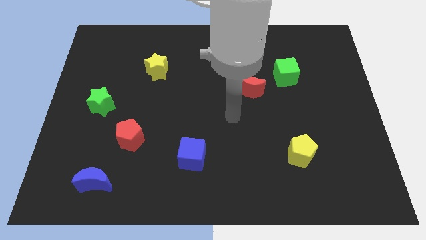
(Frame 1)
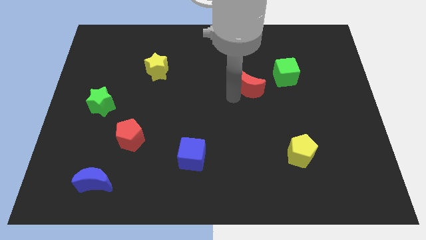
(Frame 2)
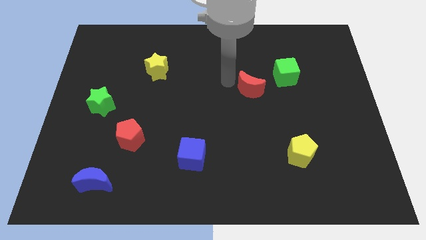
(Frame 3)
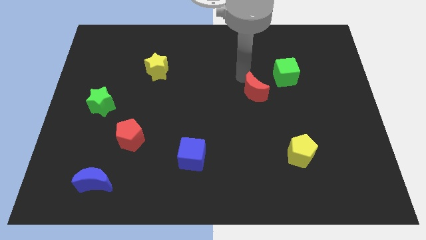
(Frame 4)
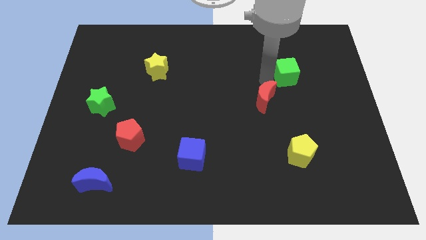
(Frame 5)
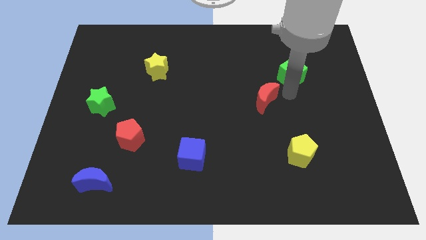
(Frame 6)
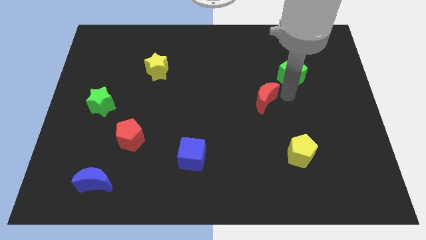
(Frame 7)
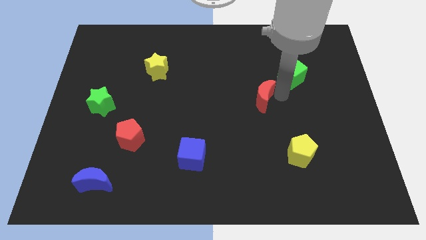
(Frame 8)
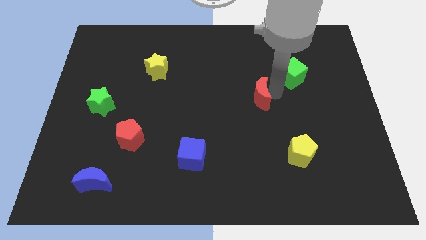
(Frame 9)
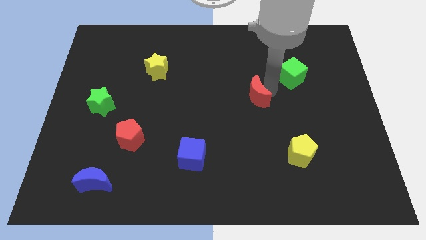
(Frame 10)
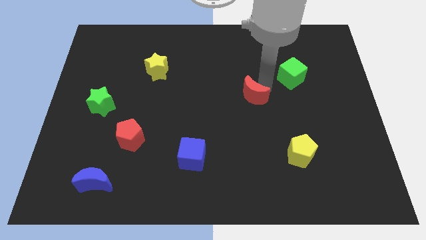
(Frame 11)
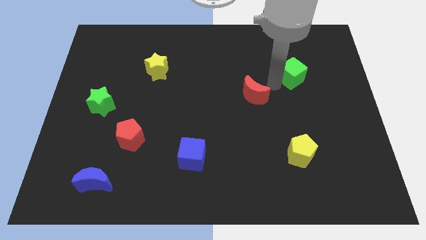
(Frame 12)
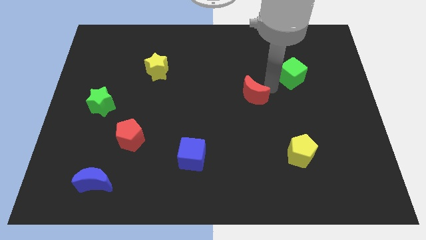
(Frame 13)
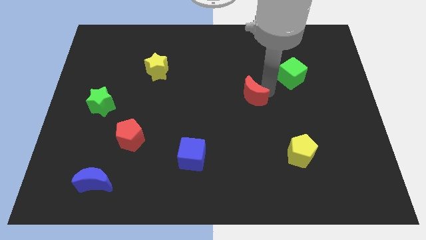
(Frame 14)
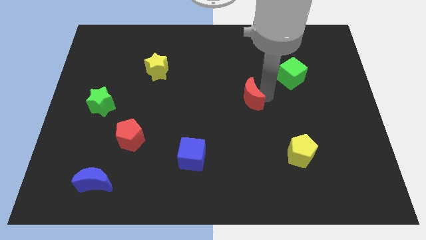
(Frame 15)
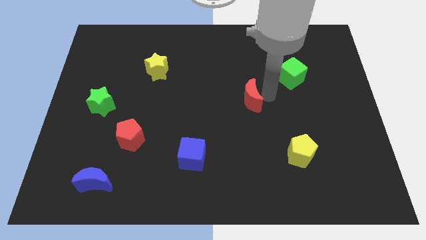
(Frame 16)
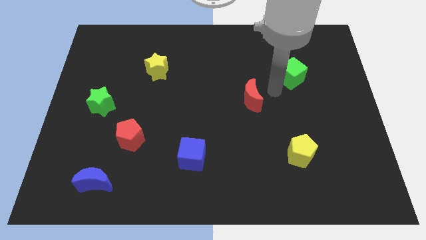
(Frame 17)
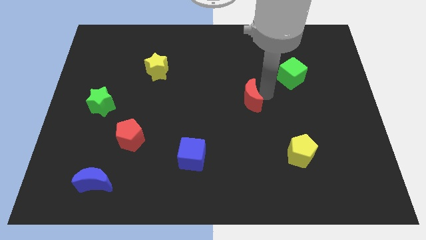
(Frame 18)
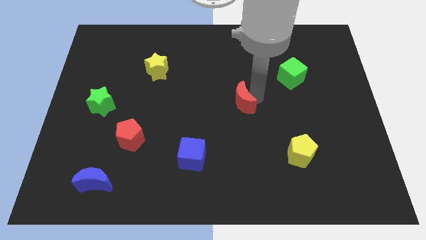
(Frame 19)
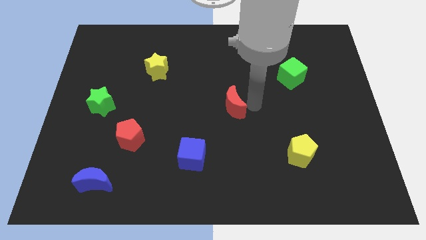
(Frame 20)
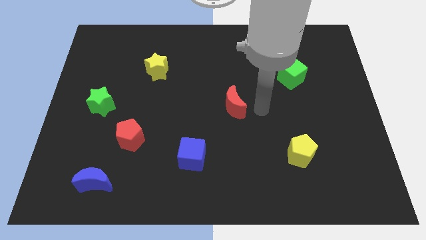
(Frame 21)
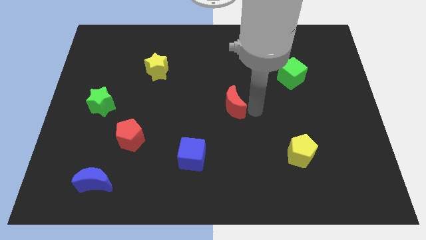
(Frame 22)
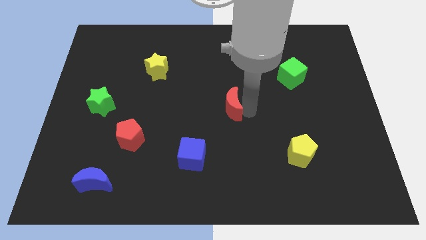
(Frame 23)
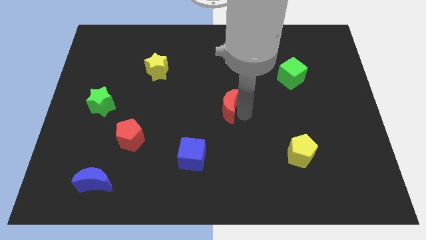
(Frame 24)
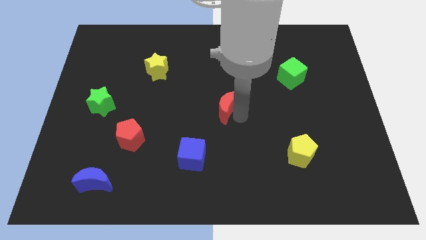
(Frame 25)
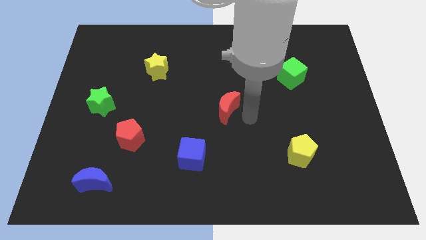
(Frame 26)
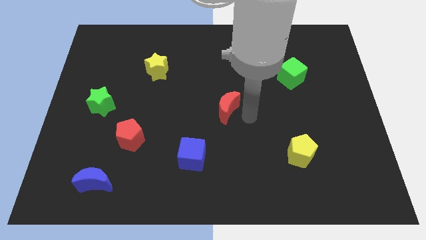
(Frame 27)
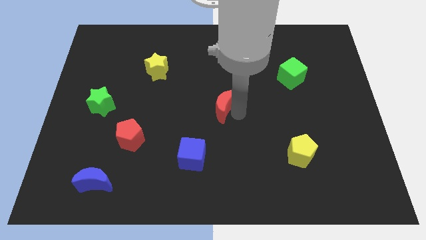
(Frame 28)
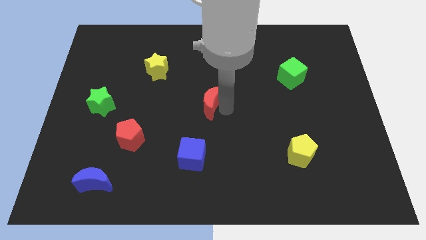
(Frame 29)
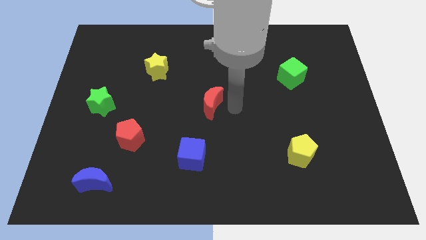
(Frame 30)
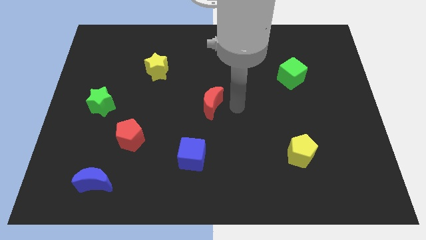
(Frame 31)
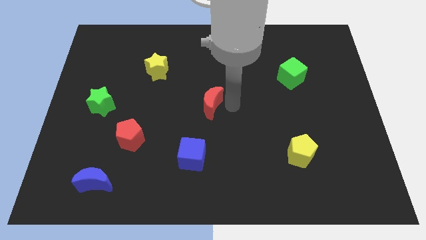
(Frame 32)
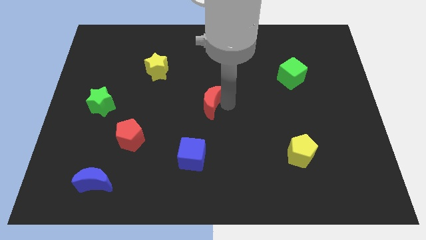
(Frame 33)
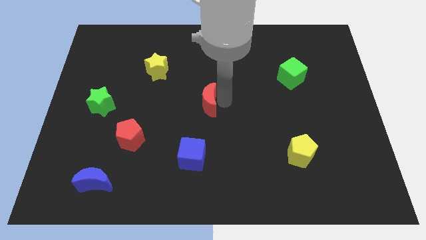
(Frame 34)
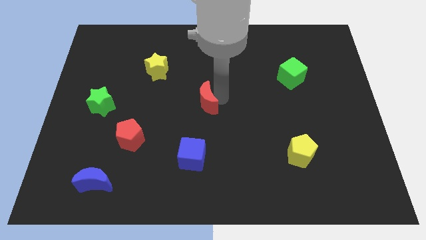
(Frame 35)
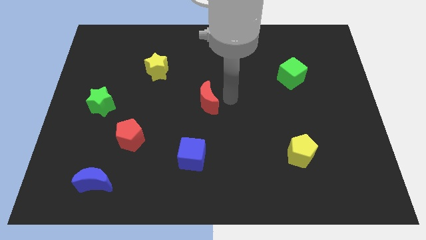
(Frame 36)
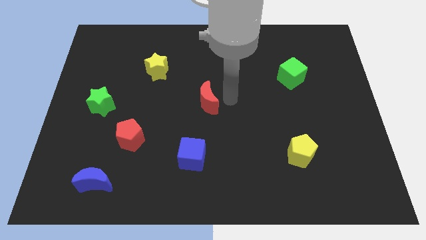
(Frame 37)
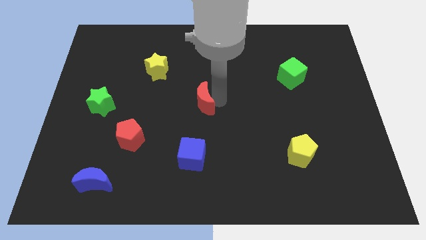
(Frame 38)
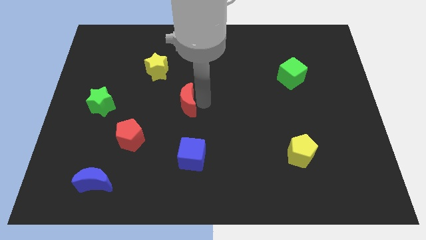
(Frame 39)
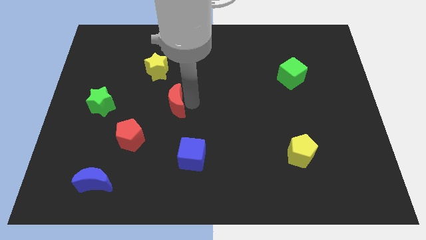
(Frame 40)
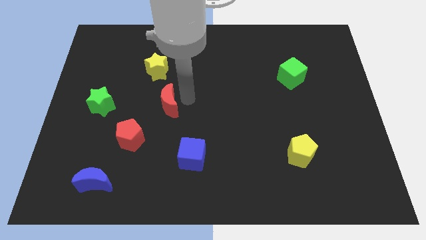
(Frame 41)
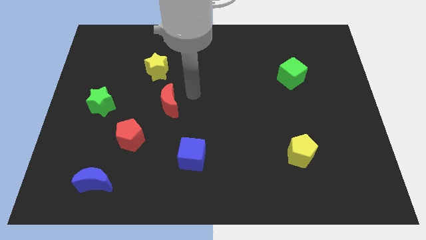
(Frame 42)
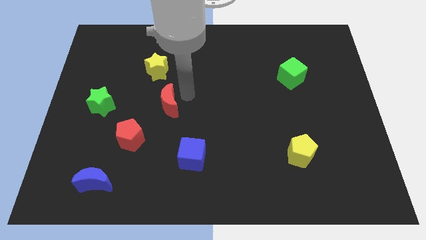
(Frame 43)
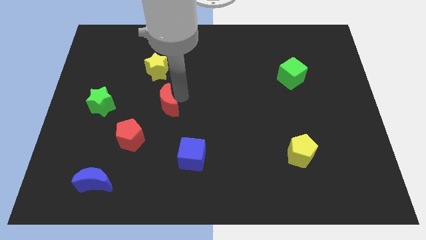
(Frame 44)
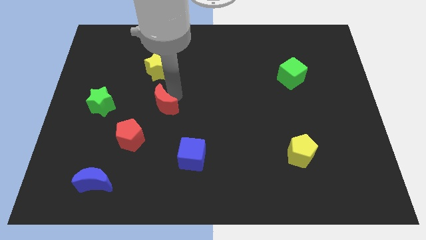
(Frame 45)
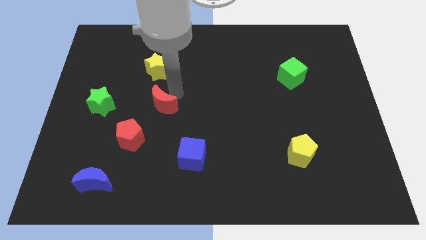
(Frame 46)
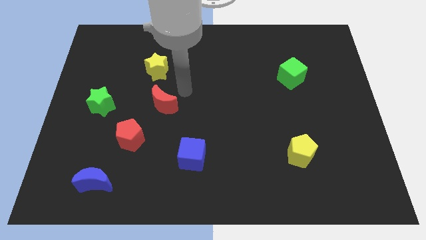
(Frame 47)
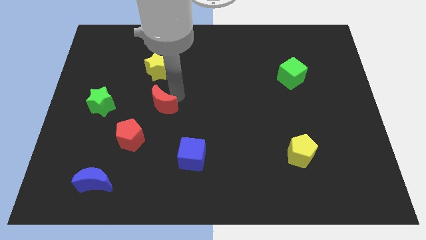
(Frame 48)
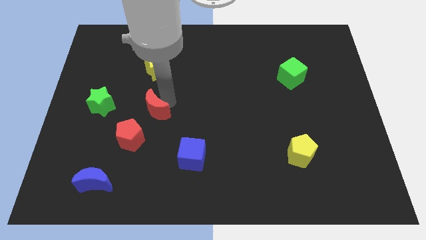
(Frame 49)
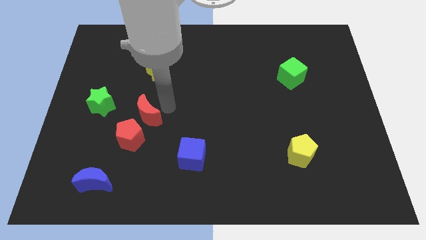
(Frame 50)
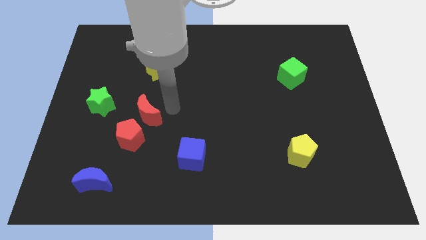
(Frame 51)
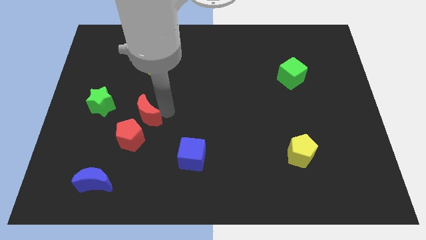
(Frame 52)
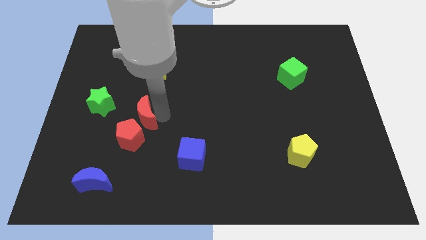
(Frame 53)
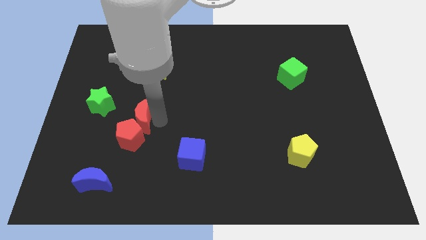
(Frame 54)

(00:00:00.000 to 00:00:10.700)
slide the red moon to the bottom right side of the green star

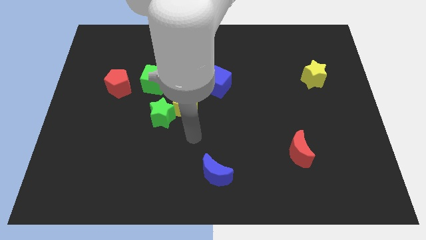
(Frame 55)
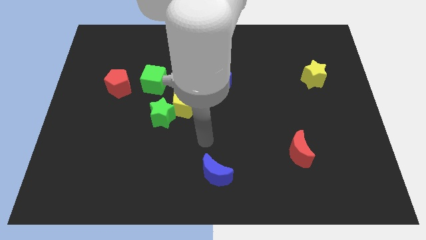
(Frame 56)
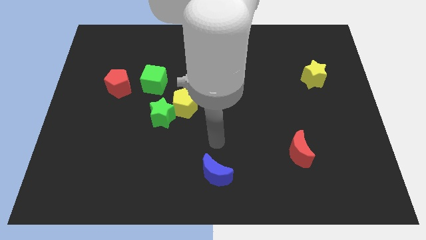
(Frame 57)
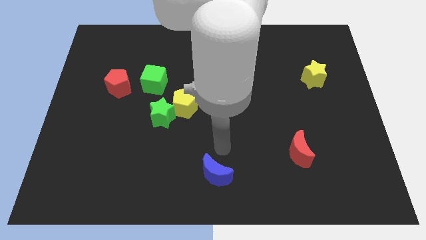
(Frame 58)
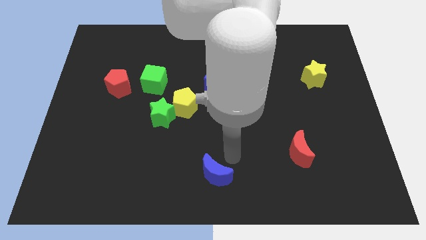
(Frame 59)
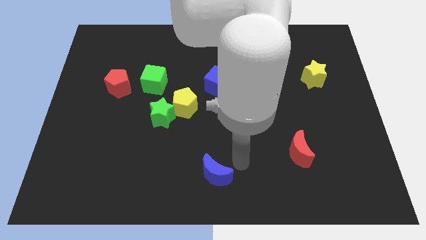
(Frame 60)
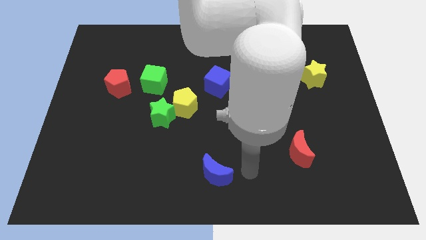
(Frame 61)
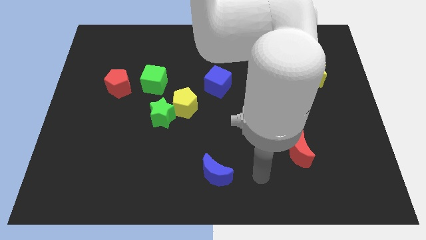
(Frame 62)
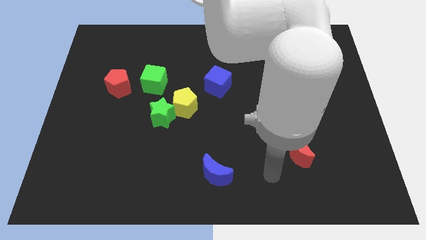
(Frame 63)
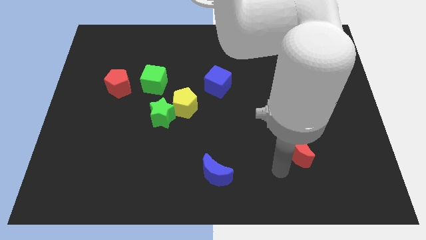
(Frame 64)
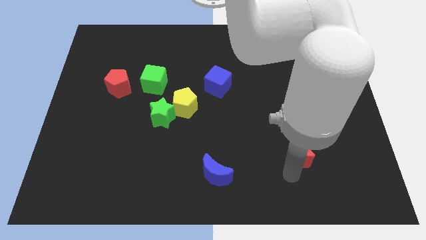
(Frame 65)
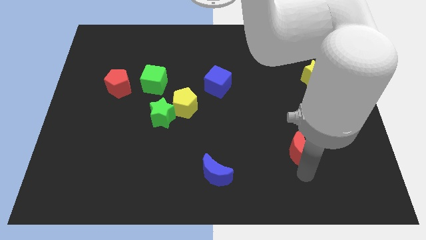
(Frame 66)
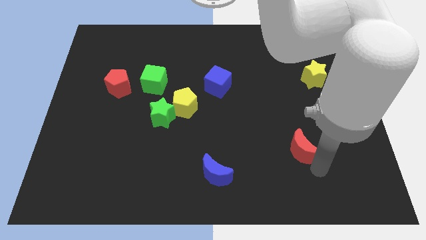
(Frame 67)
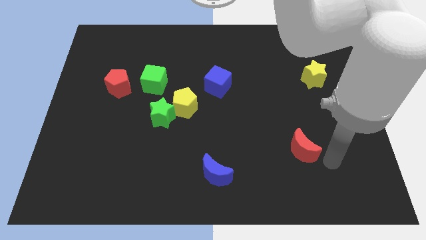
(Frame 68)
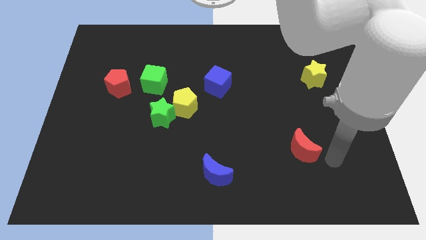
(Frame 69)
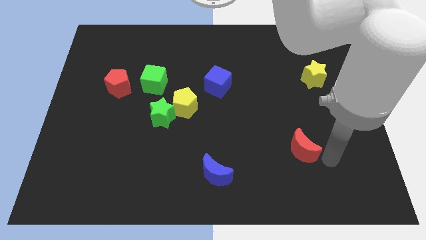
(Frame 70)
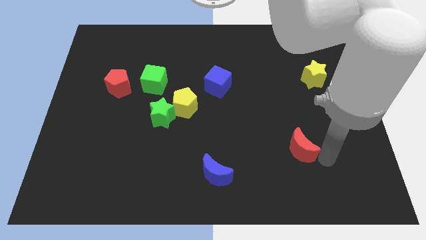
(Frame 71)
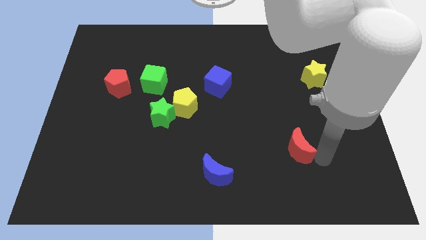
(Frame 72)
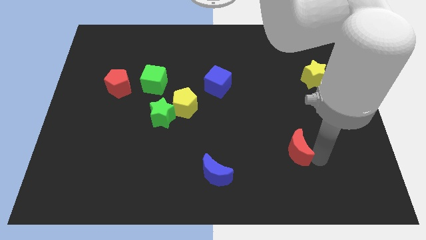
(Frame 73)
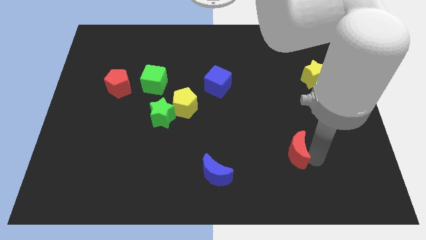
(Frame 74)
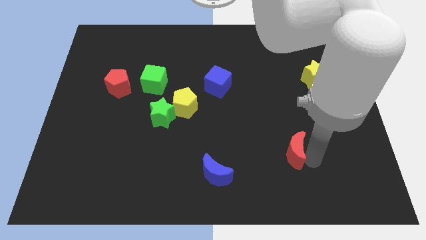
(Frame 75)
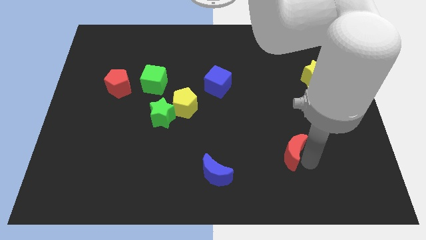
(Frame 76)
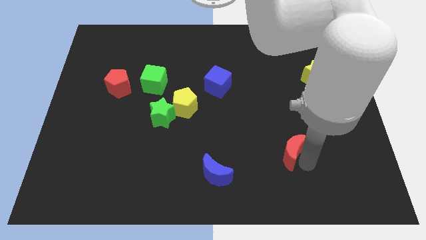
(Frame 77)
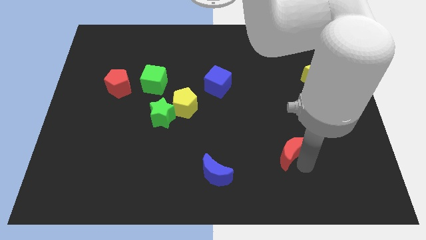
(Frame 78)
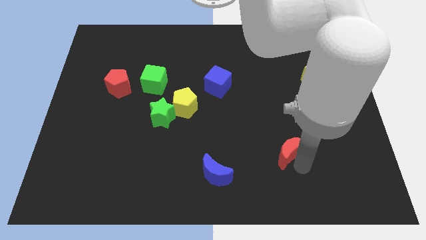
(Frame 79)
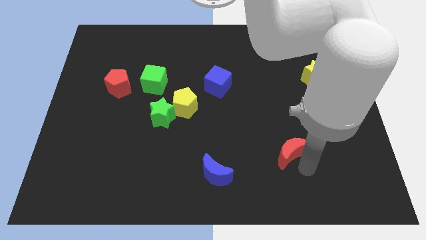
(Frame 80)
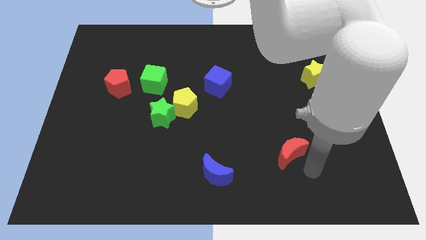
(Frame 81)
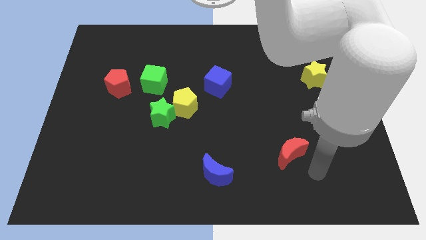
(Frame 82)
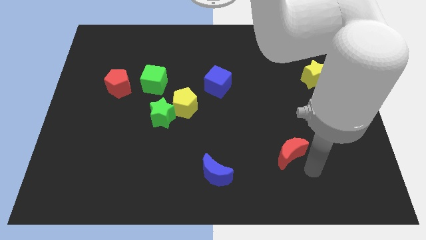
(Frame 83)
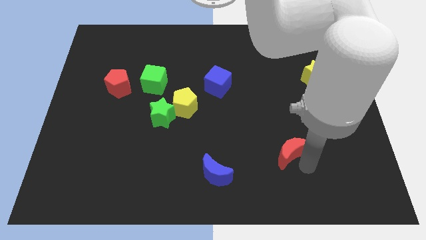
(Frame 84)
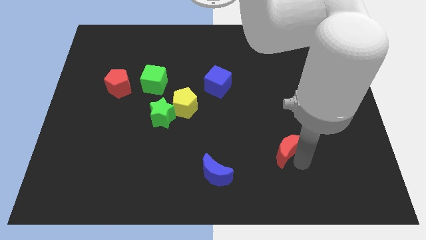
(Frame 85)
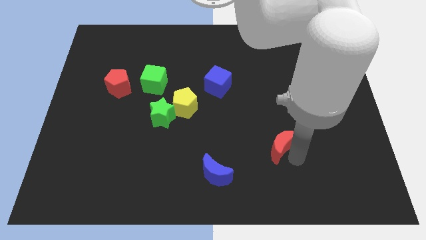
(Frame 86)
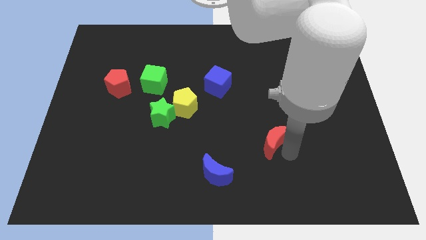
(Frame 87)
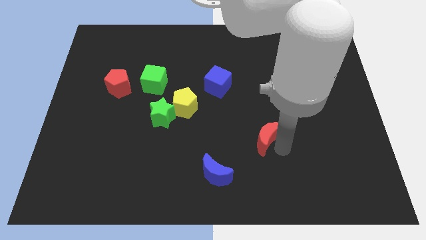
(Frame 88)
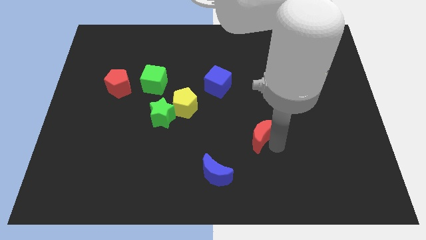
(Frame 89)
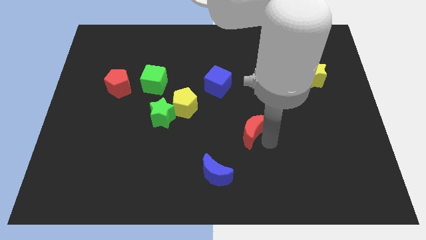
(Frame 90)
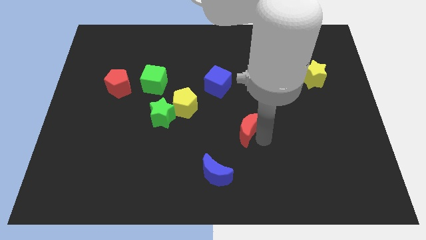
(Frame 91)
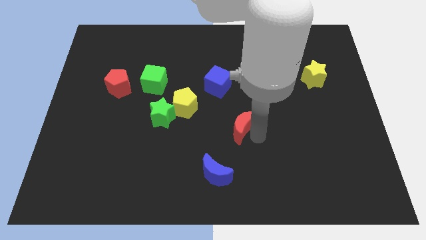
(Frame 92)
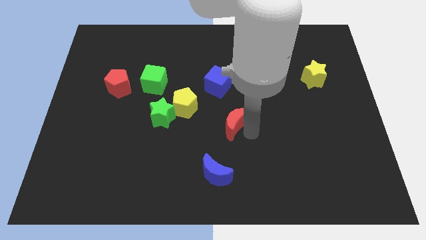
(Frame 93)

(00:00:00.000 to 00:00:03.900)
put the red moon to the bottom side of the blue cube
